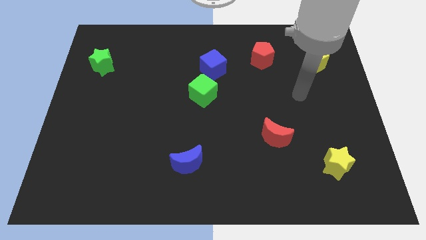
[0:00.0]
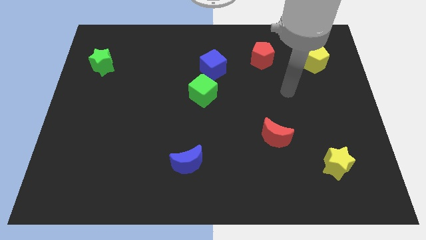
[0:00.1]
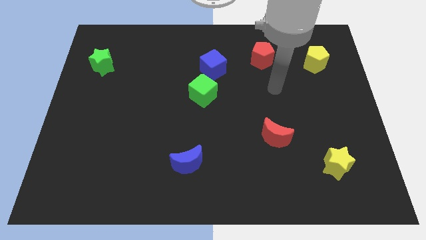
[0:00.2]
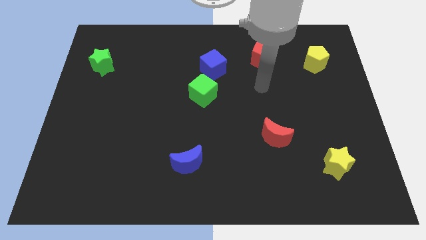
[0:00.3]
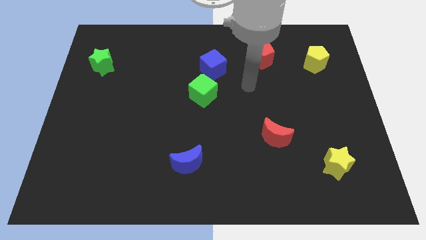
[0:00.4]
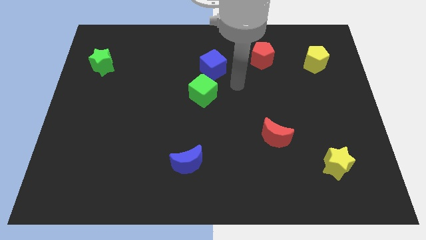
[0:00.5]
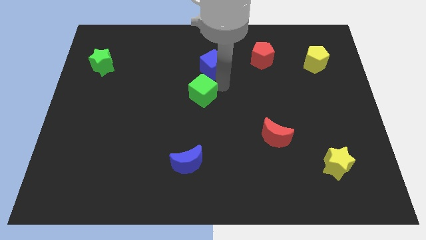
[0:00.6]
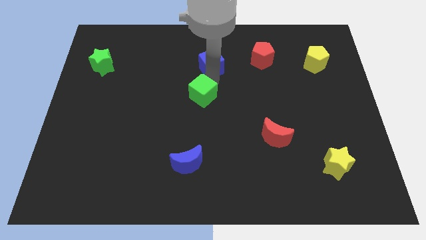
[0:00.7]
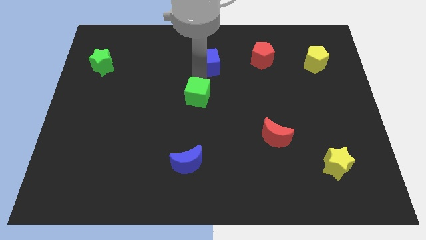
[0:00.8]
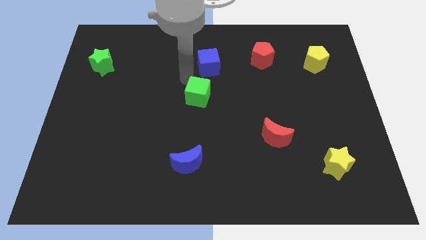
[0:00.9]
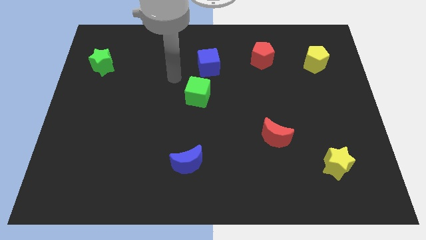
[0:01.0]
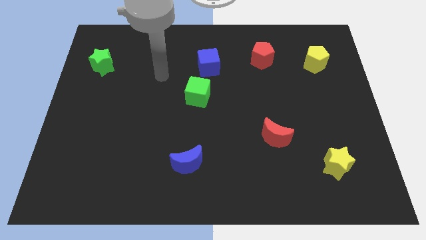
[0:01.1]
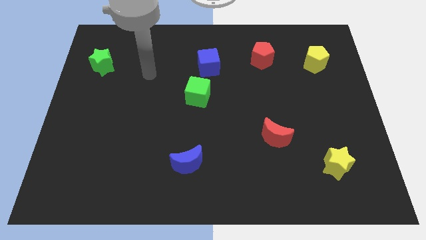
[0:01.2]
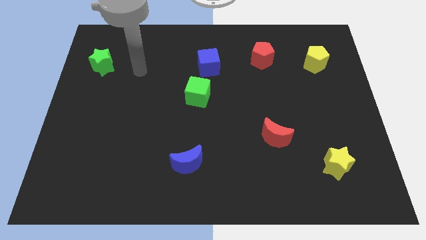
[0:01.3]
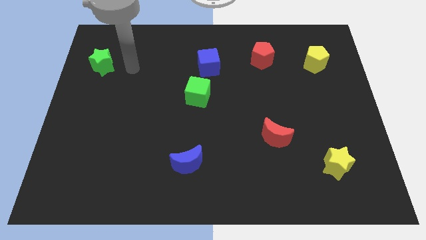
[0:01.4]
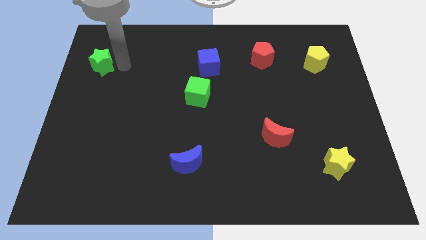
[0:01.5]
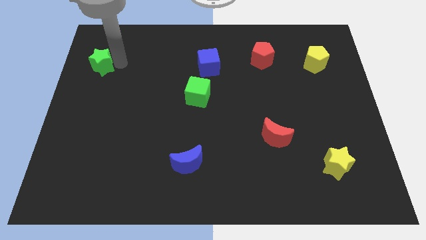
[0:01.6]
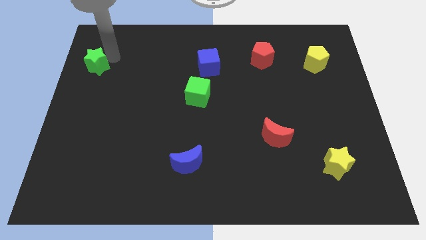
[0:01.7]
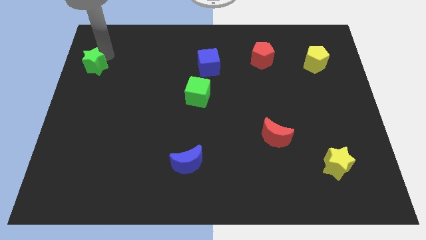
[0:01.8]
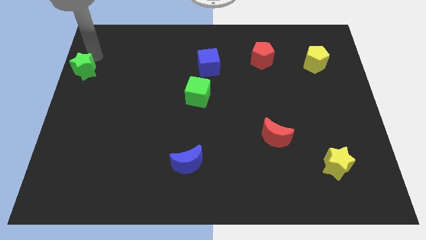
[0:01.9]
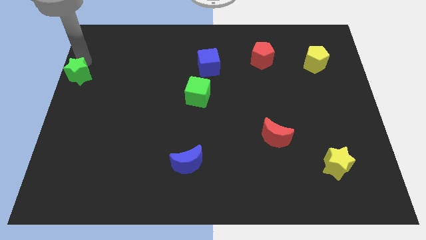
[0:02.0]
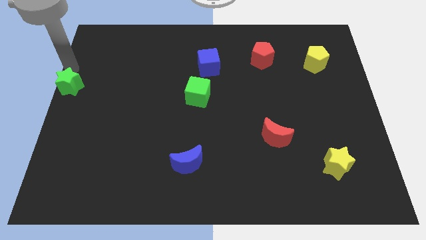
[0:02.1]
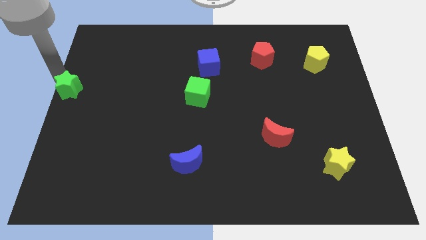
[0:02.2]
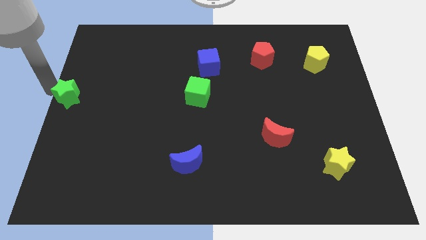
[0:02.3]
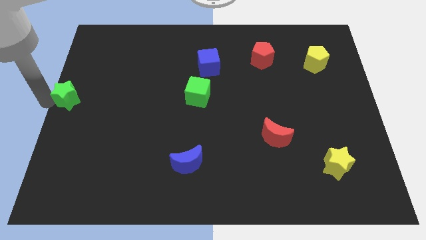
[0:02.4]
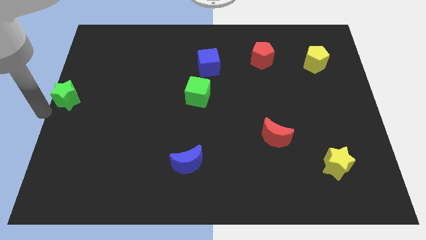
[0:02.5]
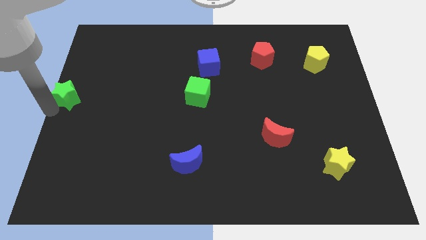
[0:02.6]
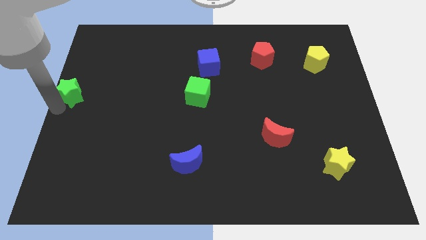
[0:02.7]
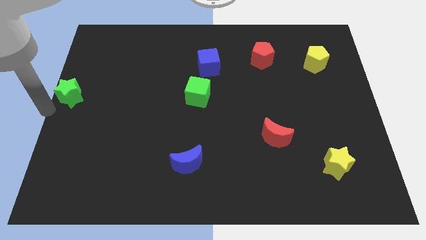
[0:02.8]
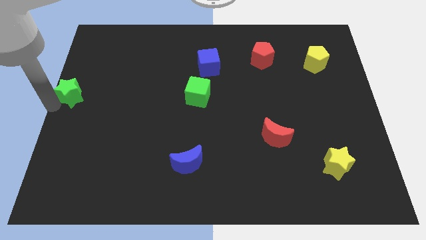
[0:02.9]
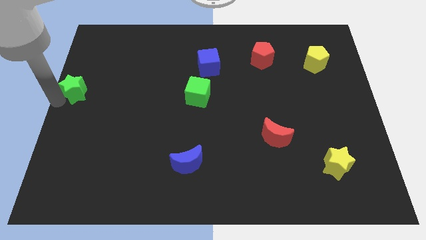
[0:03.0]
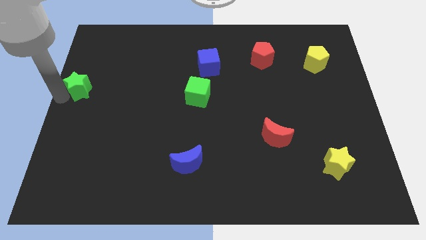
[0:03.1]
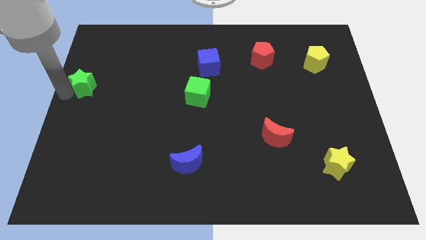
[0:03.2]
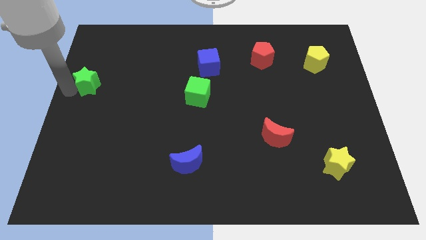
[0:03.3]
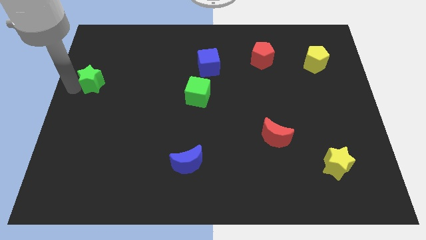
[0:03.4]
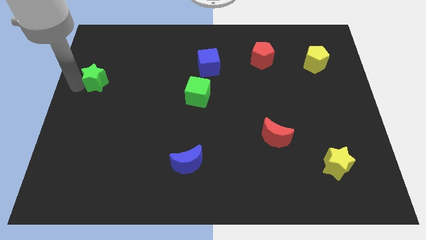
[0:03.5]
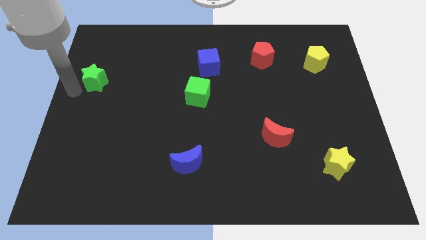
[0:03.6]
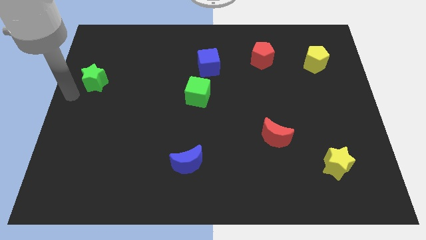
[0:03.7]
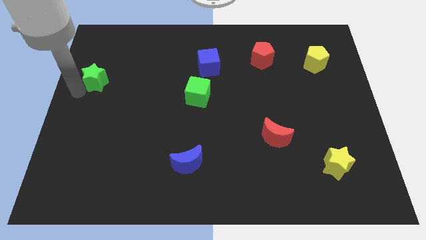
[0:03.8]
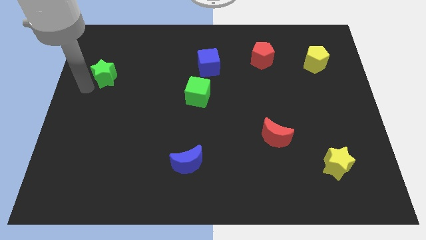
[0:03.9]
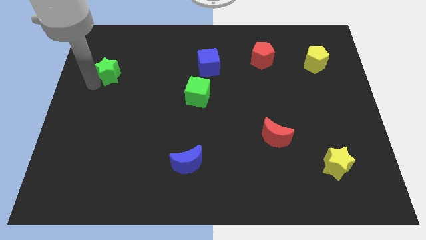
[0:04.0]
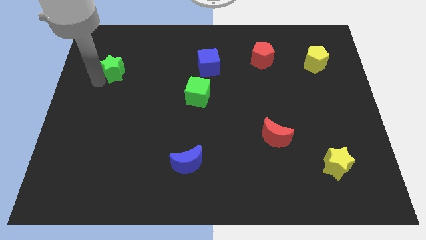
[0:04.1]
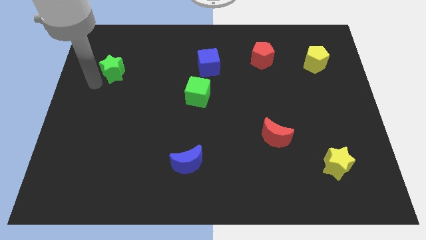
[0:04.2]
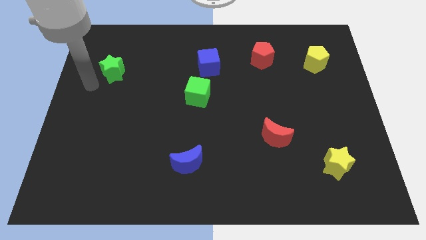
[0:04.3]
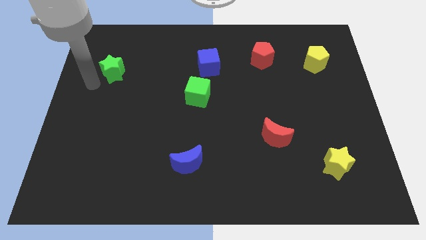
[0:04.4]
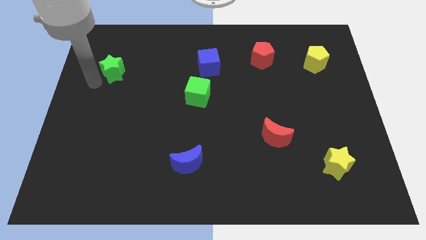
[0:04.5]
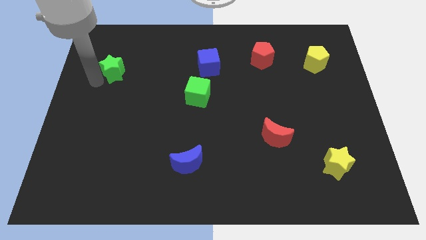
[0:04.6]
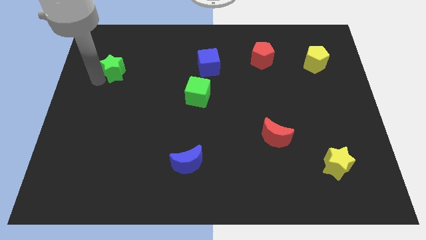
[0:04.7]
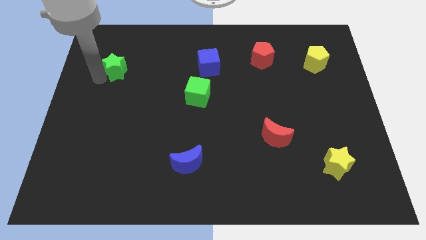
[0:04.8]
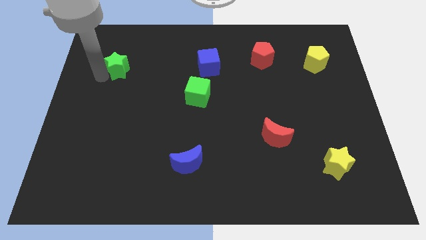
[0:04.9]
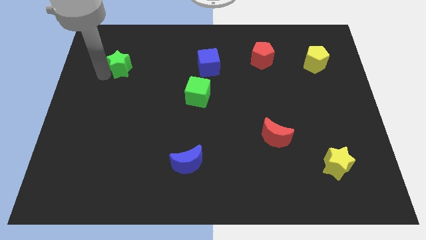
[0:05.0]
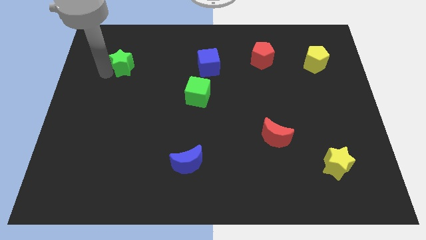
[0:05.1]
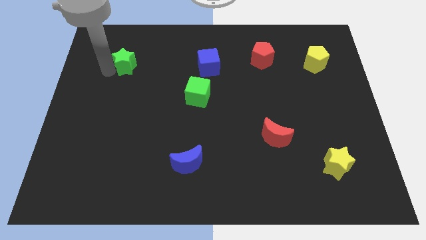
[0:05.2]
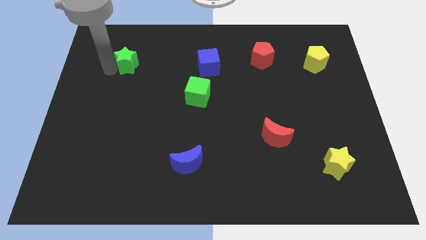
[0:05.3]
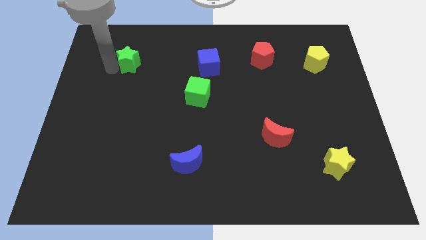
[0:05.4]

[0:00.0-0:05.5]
push the green star right a bit

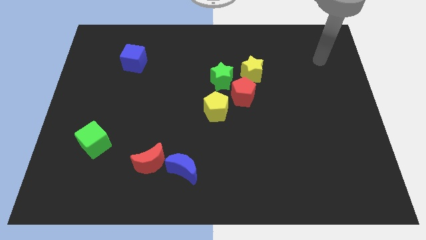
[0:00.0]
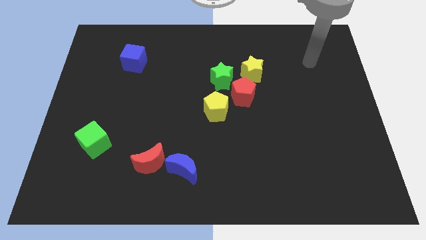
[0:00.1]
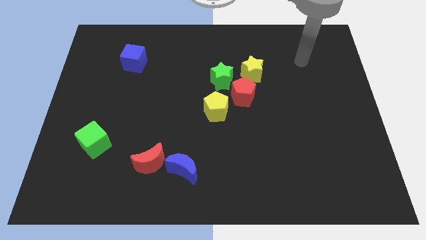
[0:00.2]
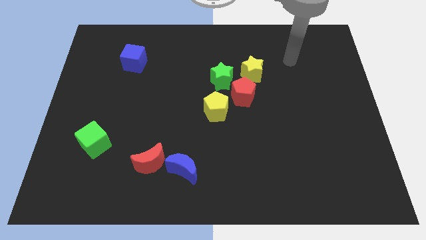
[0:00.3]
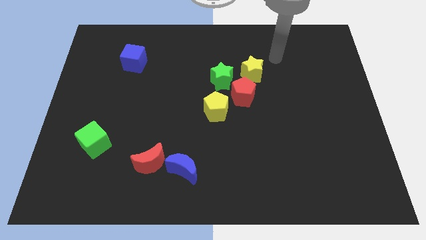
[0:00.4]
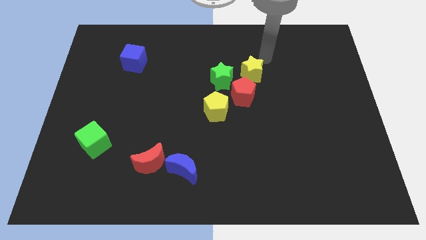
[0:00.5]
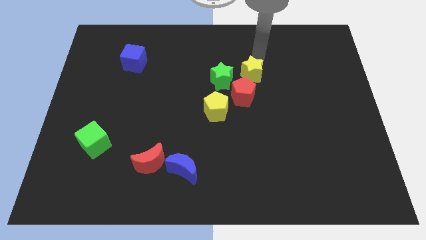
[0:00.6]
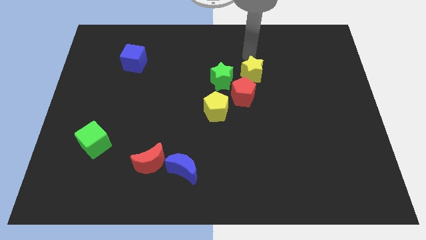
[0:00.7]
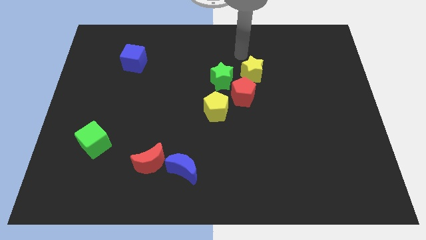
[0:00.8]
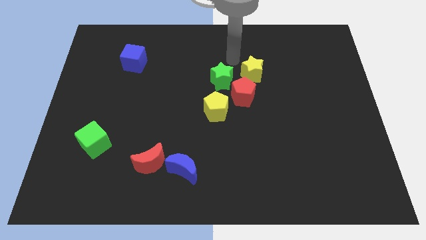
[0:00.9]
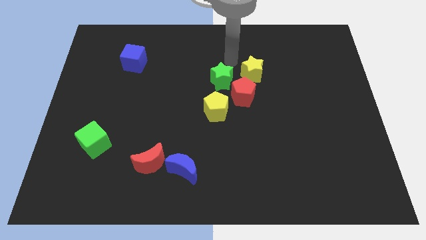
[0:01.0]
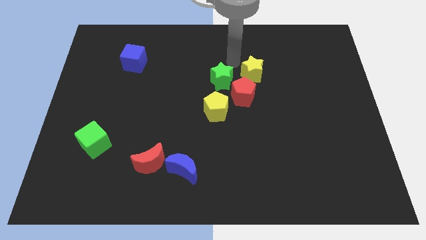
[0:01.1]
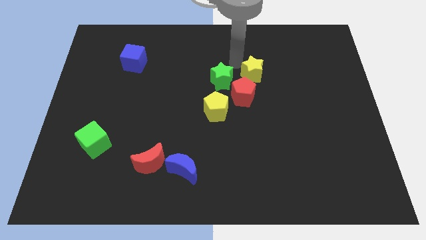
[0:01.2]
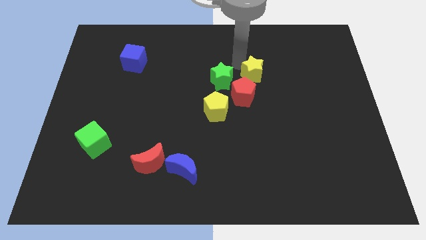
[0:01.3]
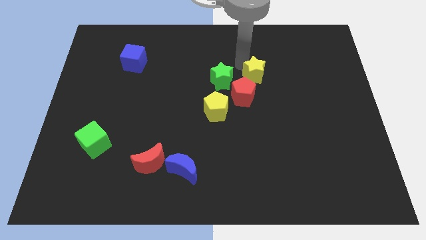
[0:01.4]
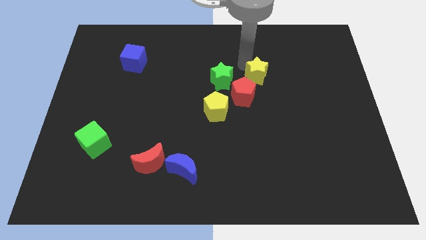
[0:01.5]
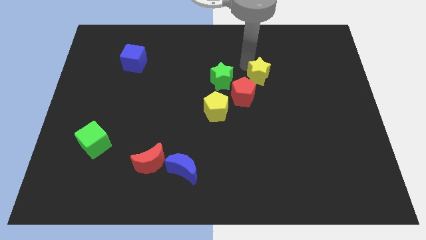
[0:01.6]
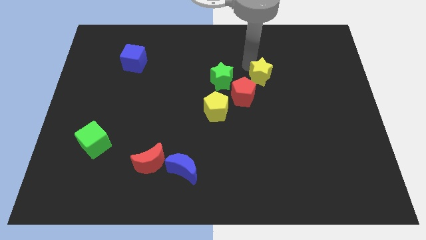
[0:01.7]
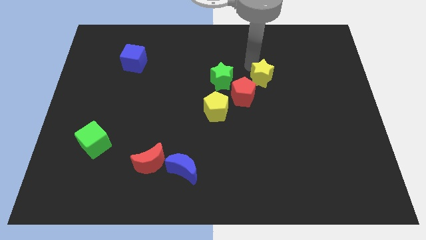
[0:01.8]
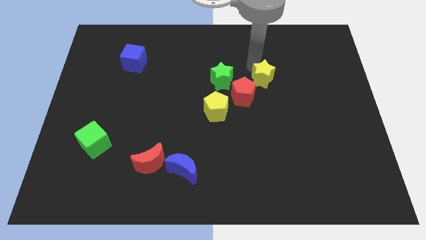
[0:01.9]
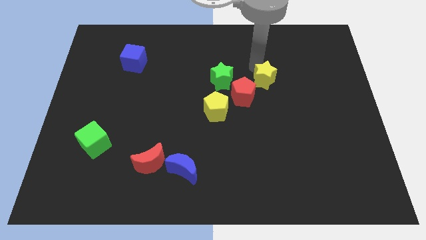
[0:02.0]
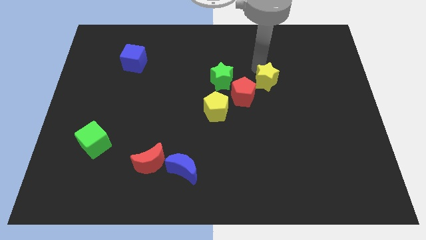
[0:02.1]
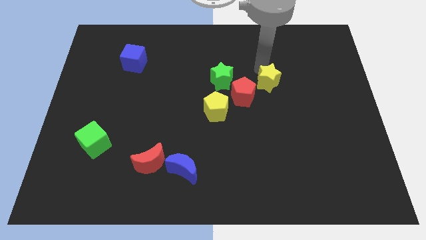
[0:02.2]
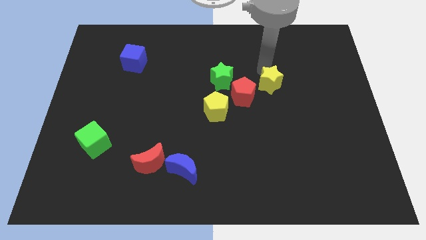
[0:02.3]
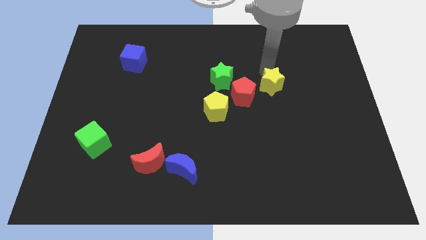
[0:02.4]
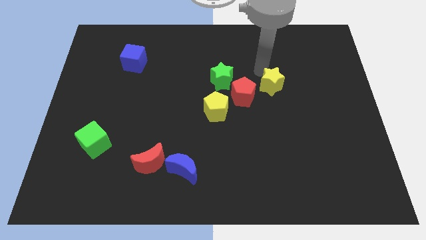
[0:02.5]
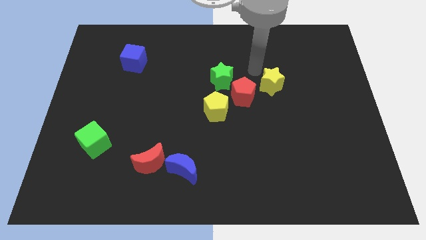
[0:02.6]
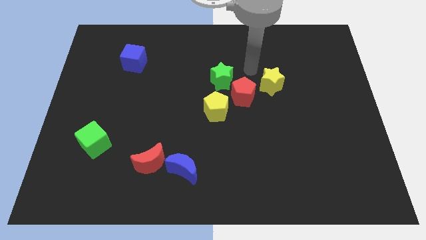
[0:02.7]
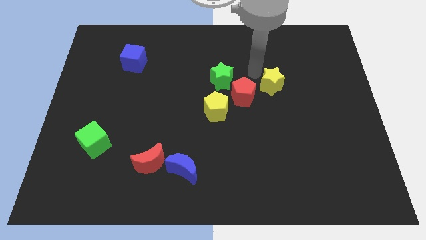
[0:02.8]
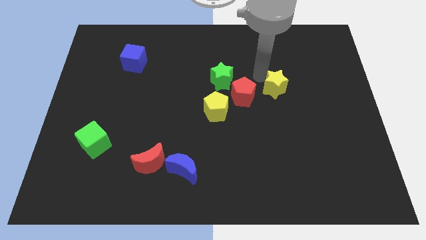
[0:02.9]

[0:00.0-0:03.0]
slightly move the yellow star downwards and then to the right
